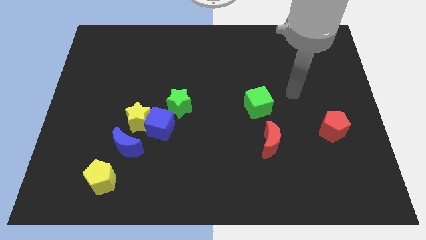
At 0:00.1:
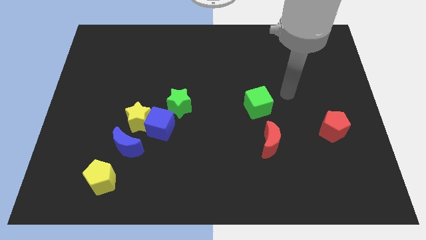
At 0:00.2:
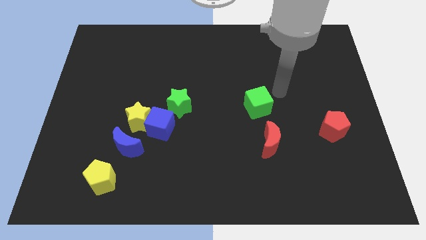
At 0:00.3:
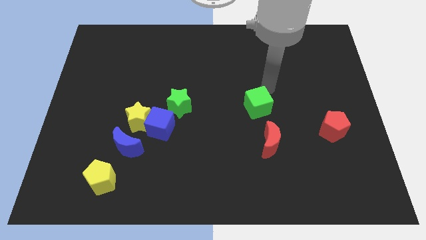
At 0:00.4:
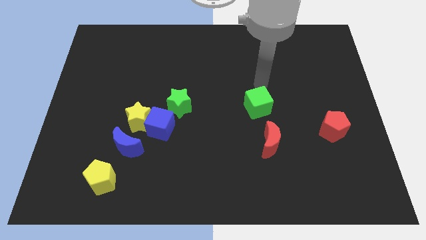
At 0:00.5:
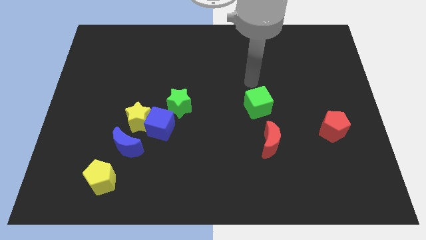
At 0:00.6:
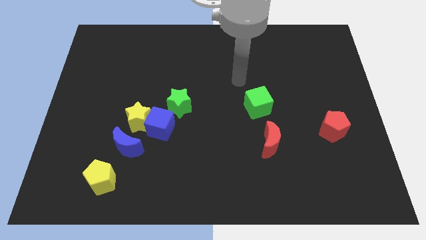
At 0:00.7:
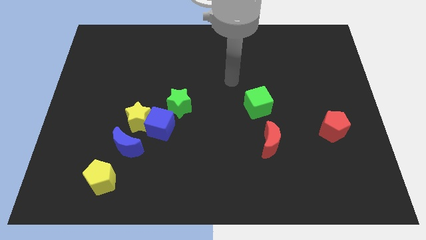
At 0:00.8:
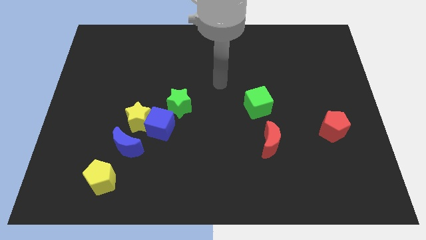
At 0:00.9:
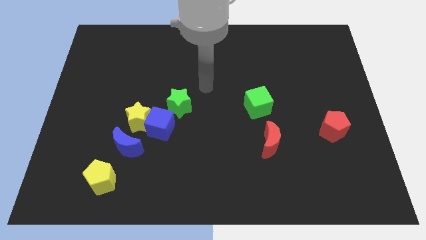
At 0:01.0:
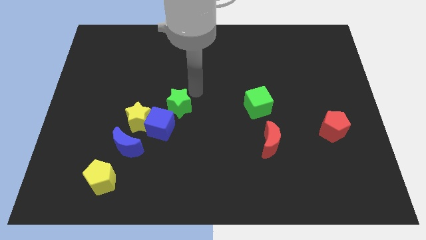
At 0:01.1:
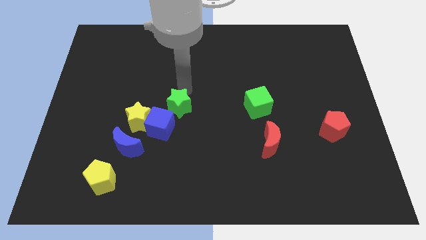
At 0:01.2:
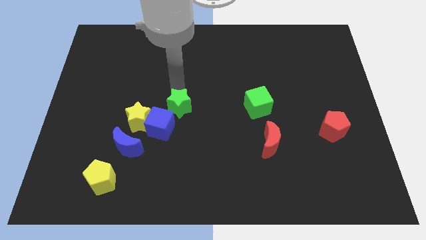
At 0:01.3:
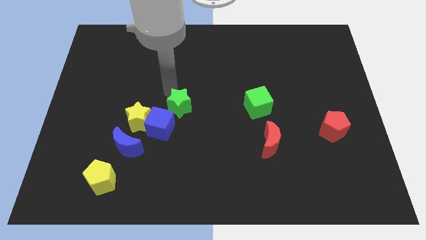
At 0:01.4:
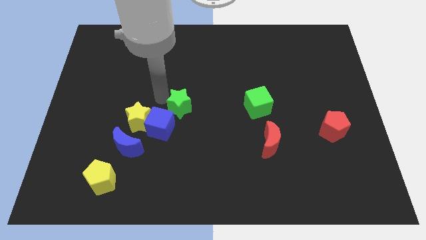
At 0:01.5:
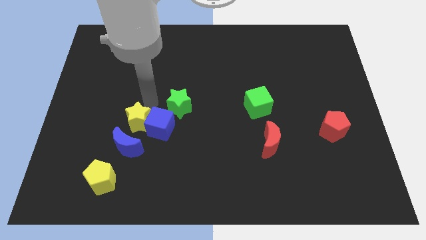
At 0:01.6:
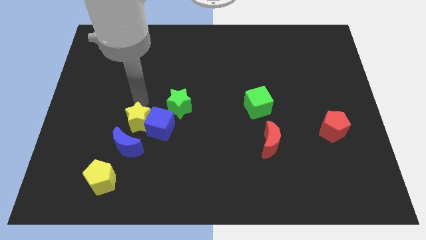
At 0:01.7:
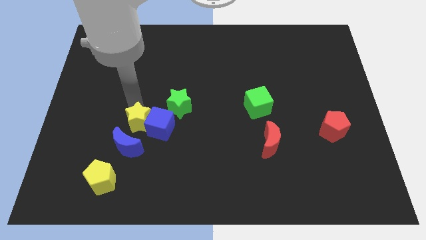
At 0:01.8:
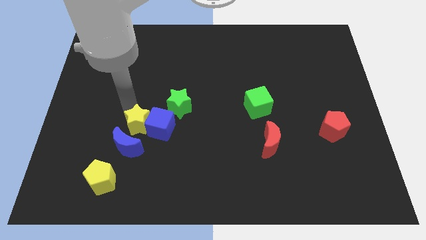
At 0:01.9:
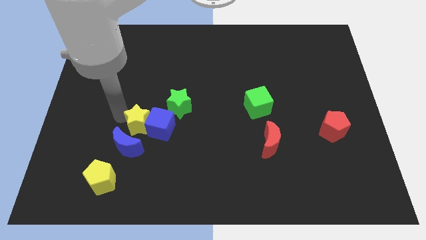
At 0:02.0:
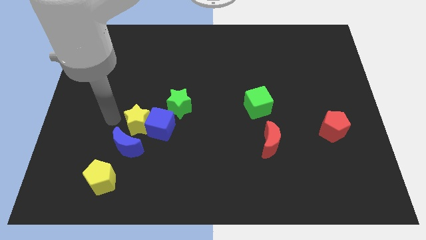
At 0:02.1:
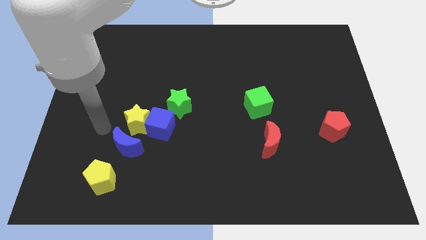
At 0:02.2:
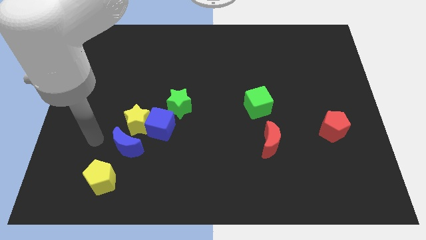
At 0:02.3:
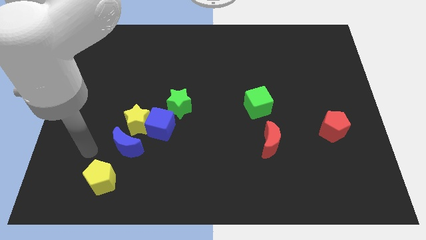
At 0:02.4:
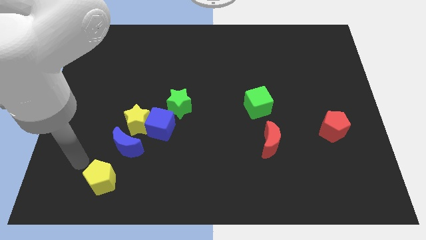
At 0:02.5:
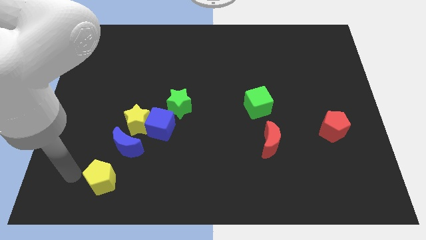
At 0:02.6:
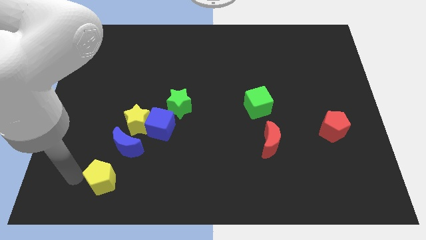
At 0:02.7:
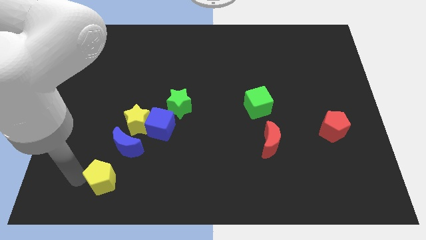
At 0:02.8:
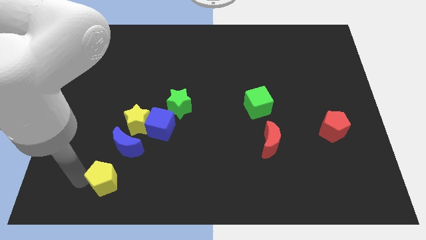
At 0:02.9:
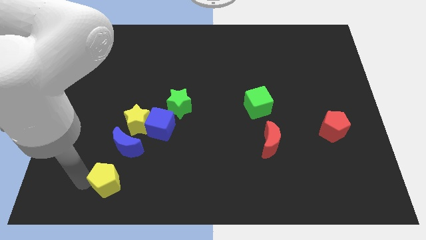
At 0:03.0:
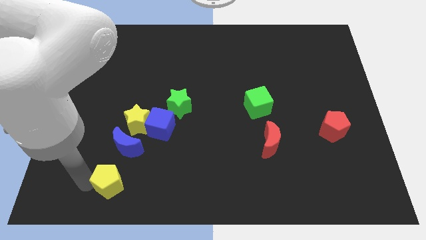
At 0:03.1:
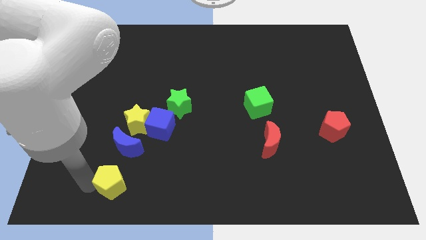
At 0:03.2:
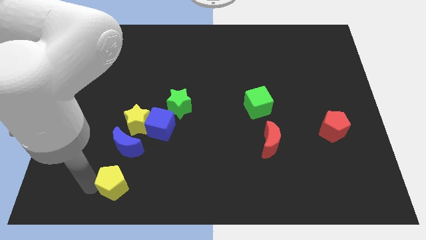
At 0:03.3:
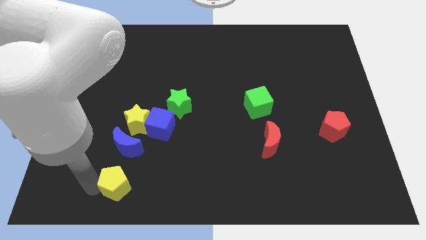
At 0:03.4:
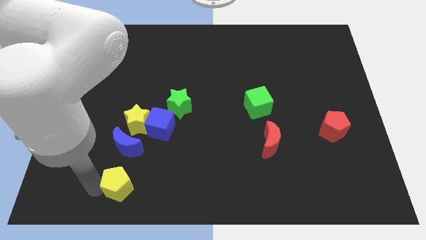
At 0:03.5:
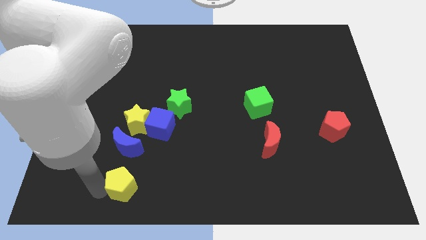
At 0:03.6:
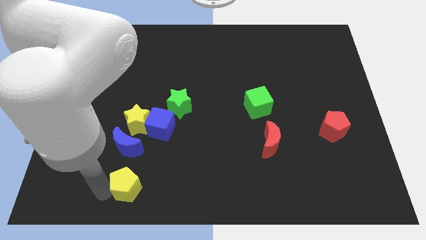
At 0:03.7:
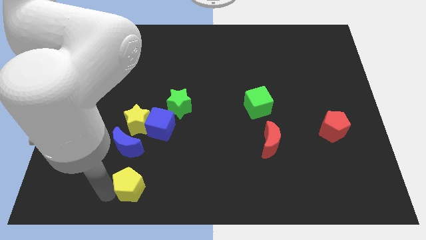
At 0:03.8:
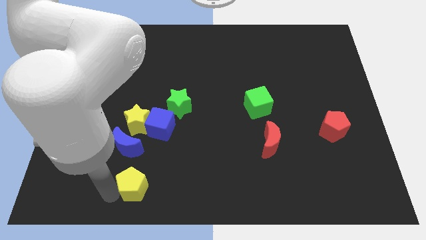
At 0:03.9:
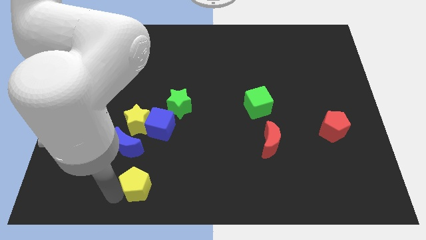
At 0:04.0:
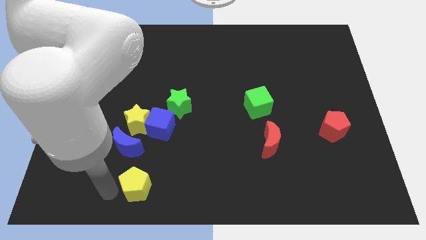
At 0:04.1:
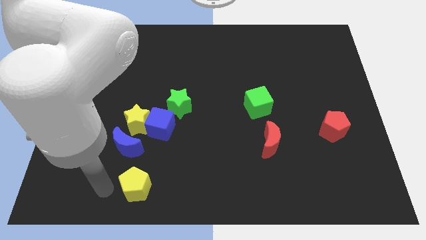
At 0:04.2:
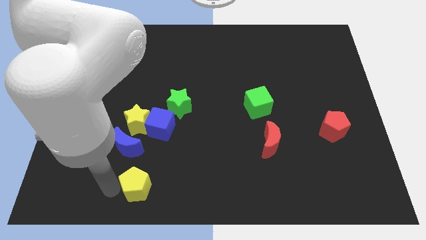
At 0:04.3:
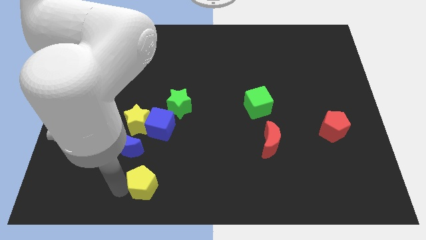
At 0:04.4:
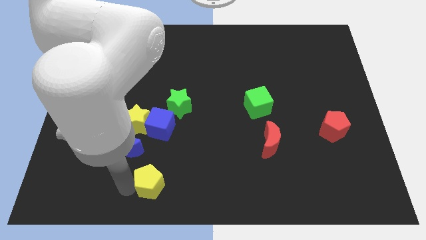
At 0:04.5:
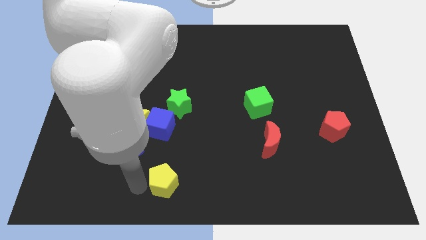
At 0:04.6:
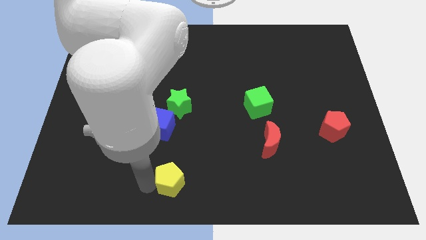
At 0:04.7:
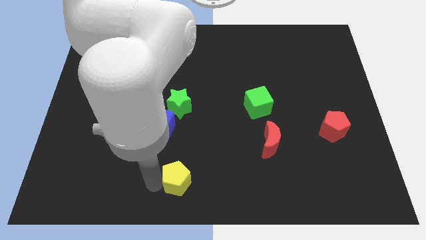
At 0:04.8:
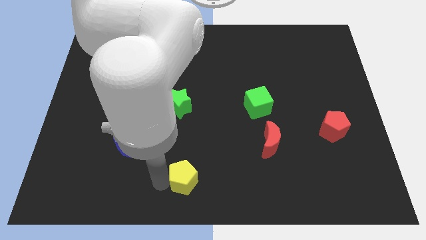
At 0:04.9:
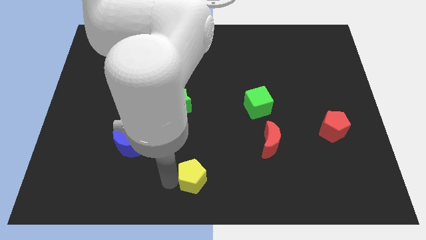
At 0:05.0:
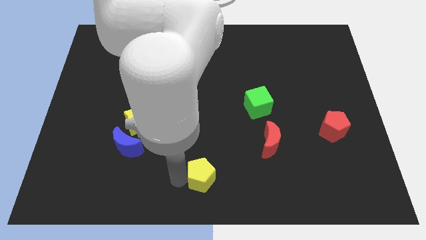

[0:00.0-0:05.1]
slide the yellow pentagon to the right

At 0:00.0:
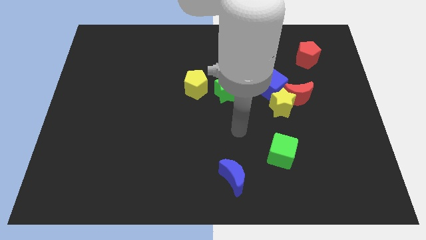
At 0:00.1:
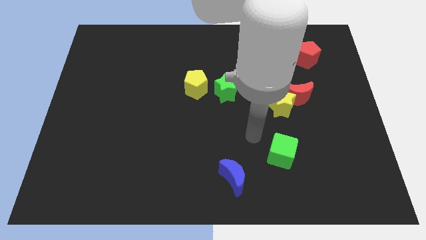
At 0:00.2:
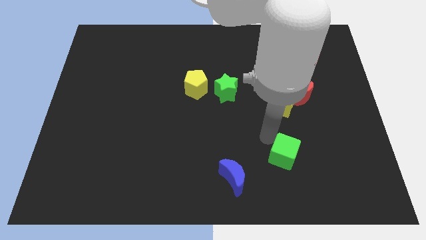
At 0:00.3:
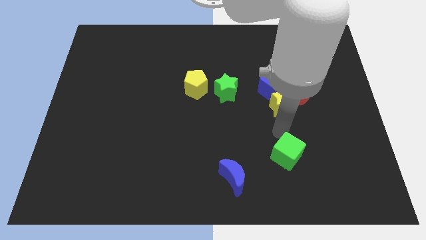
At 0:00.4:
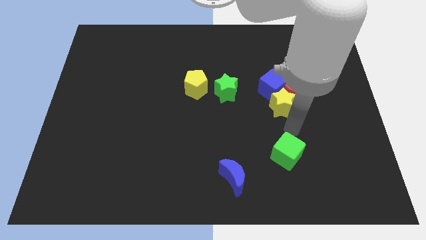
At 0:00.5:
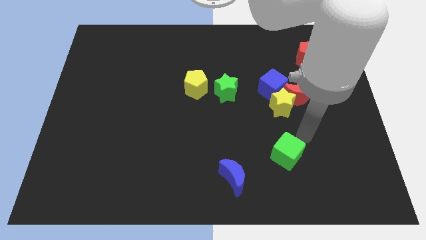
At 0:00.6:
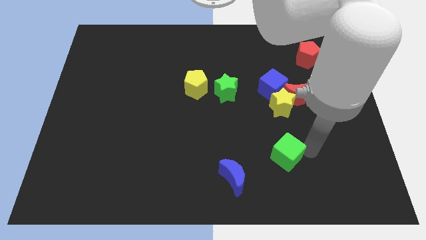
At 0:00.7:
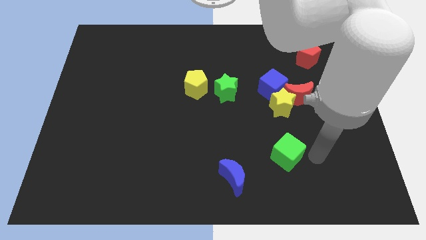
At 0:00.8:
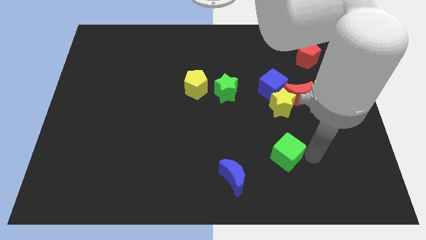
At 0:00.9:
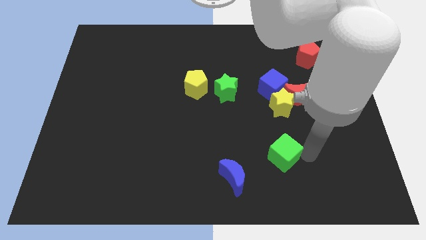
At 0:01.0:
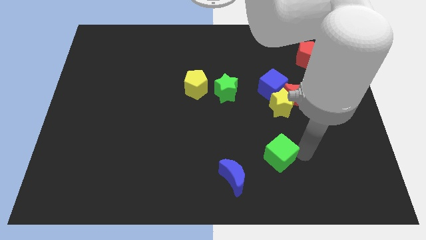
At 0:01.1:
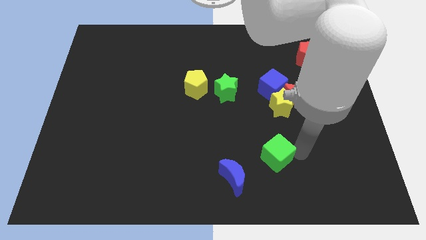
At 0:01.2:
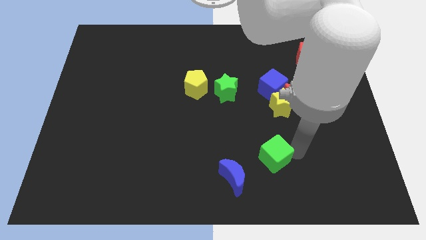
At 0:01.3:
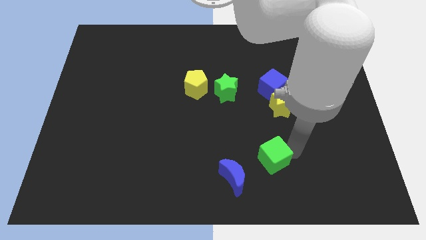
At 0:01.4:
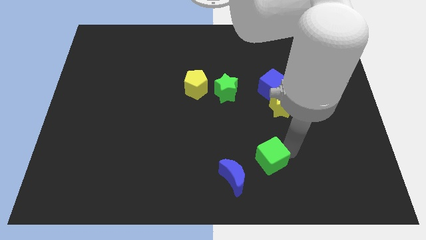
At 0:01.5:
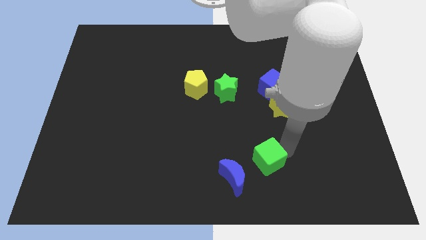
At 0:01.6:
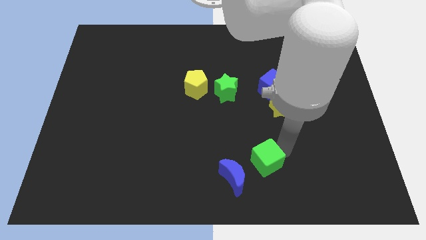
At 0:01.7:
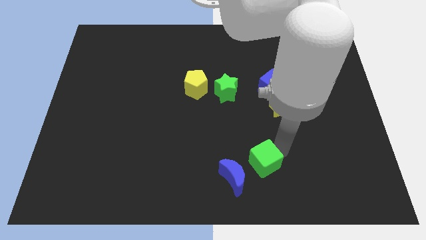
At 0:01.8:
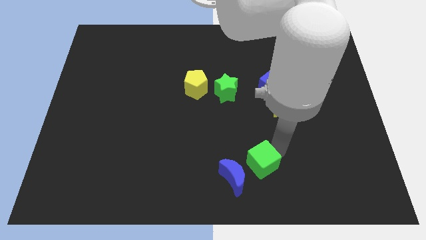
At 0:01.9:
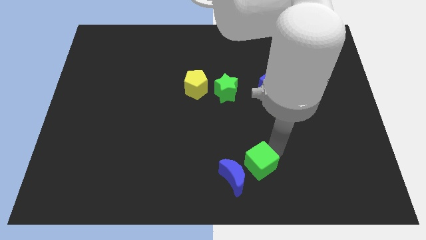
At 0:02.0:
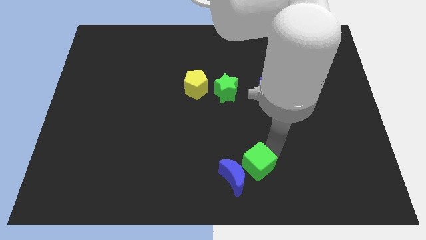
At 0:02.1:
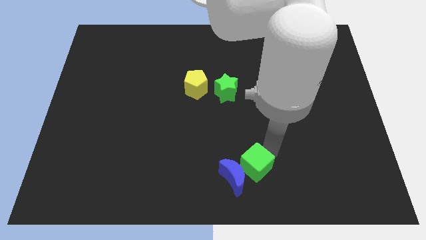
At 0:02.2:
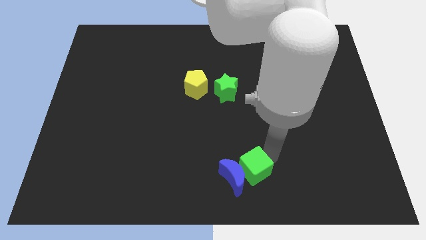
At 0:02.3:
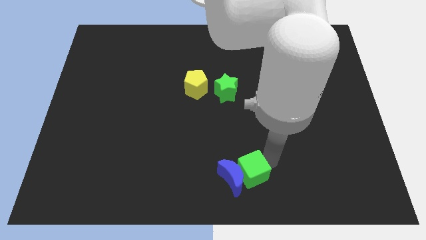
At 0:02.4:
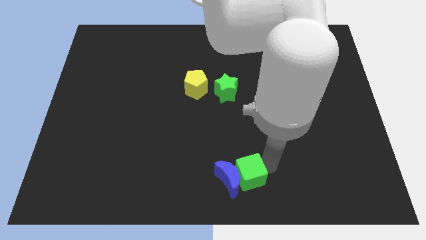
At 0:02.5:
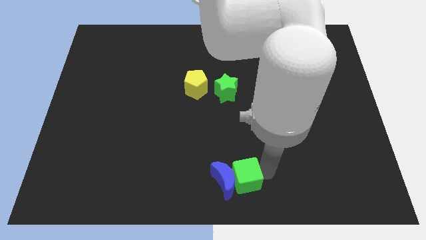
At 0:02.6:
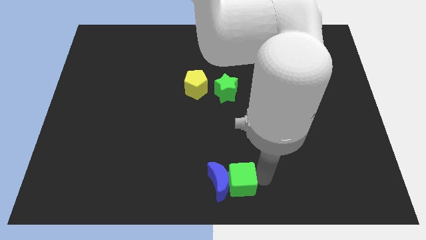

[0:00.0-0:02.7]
slightly slide the green cube to the left
